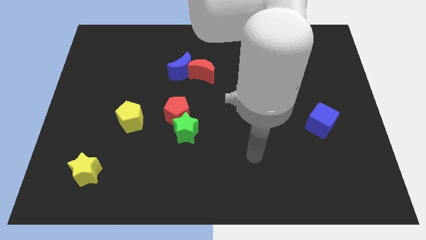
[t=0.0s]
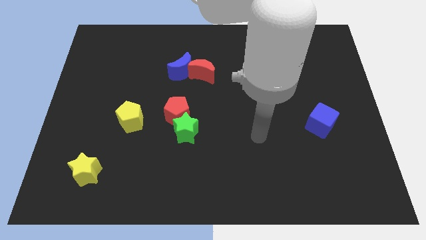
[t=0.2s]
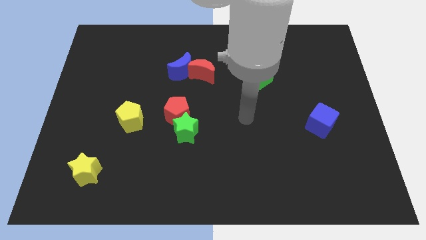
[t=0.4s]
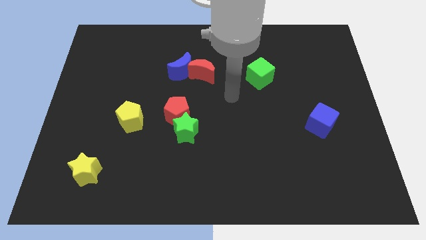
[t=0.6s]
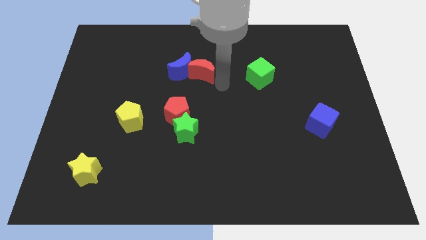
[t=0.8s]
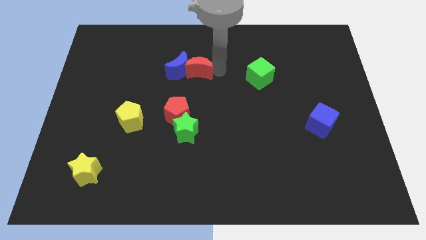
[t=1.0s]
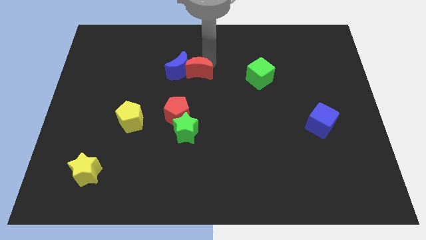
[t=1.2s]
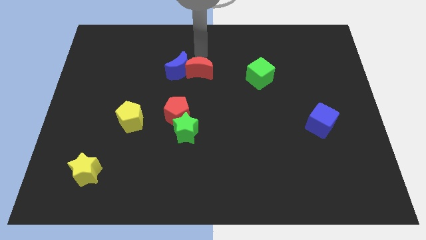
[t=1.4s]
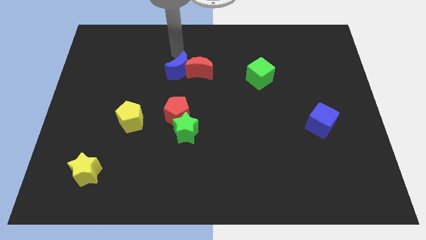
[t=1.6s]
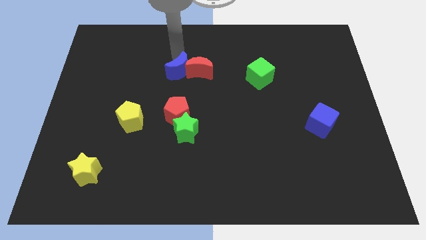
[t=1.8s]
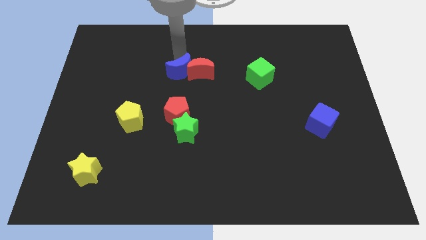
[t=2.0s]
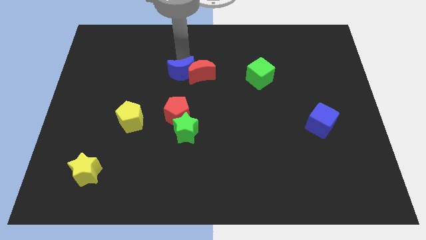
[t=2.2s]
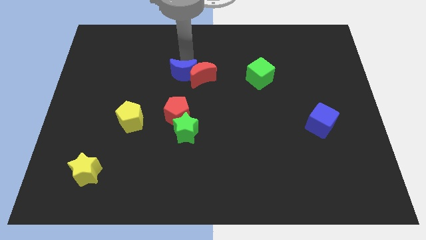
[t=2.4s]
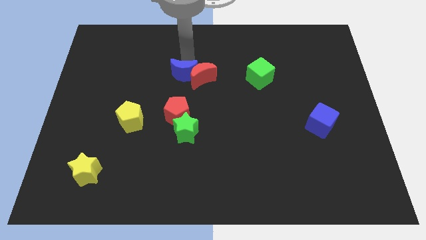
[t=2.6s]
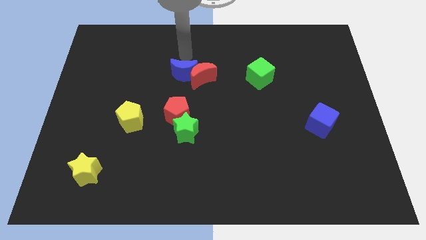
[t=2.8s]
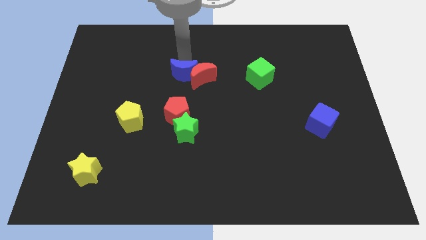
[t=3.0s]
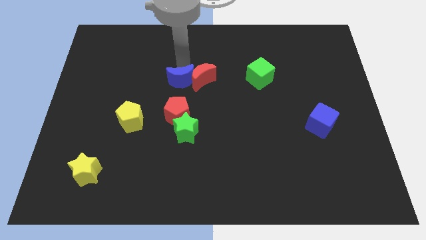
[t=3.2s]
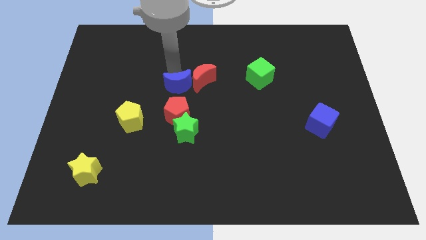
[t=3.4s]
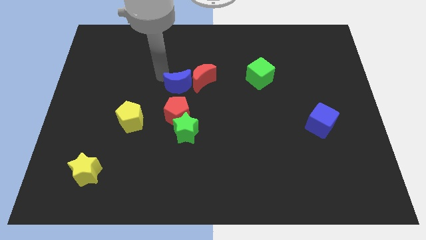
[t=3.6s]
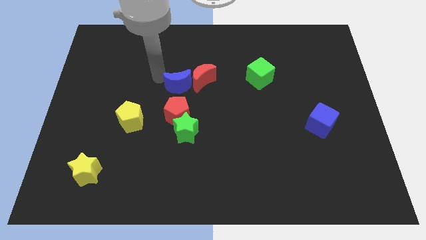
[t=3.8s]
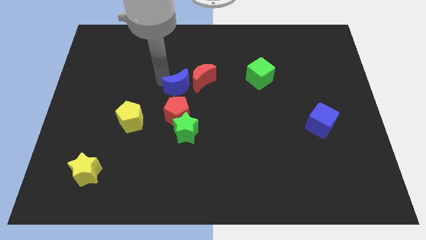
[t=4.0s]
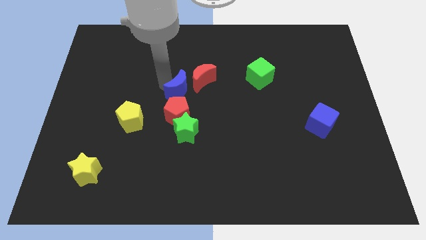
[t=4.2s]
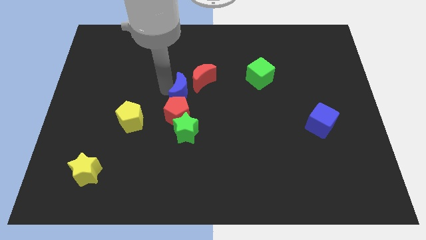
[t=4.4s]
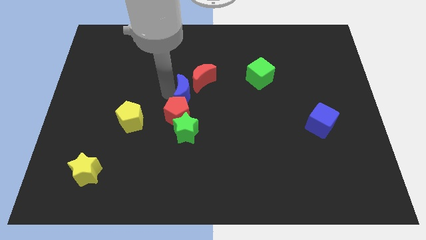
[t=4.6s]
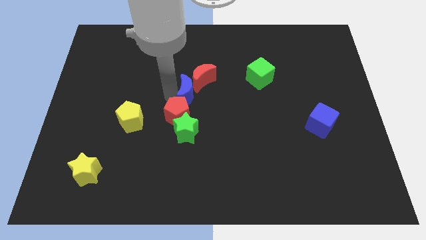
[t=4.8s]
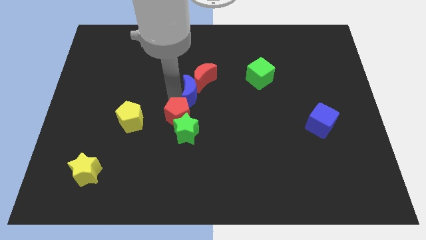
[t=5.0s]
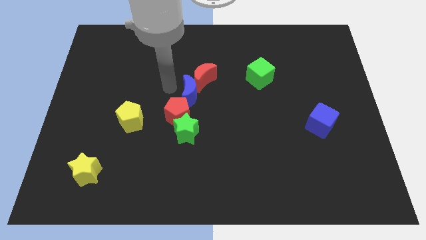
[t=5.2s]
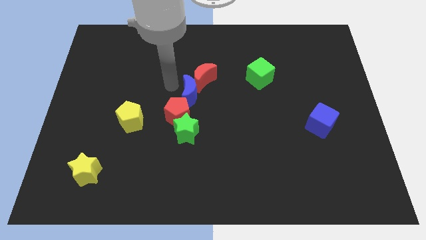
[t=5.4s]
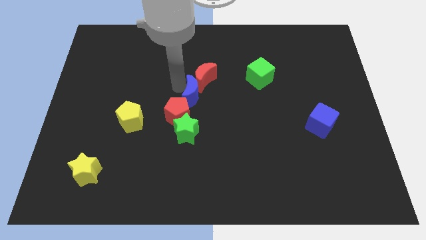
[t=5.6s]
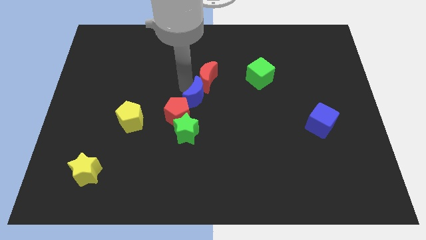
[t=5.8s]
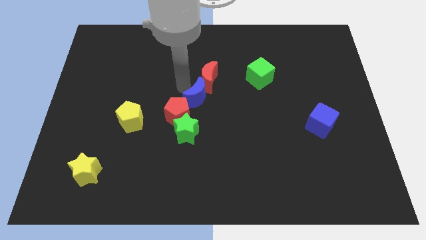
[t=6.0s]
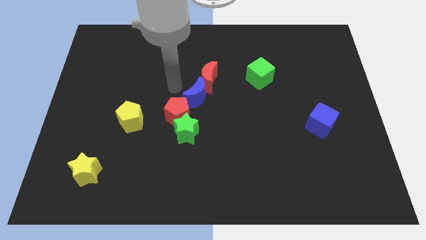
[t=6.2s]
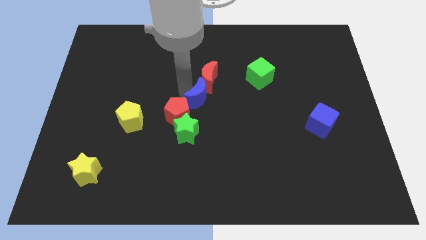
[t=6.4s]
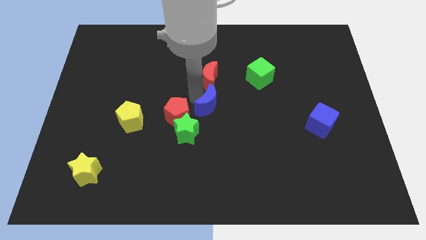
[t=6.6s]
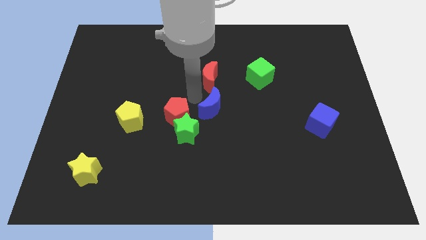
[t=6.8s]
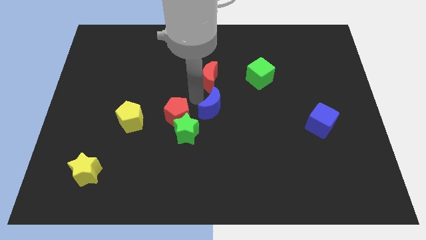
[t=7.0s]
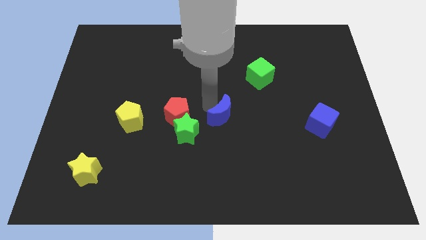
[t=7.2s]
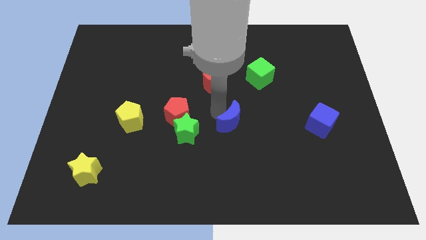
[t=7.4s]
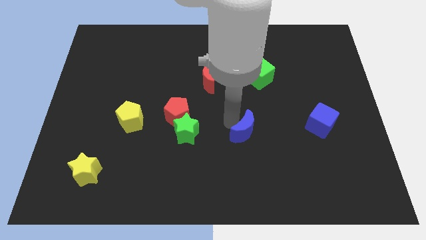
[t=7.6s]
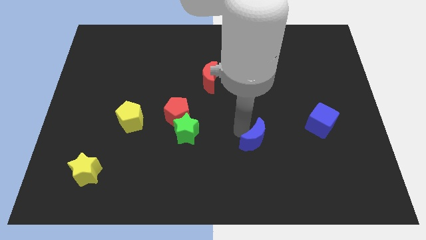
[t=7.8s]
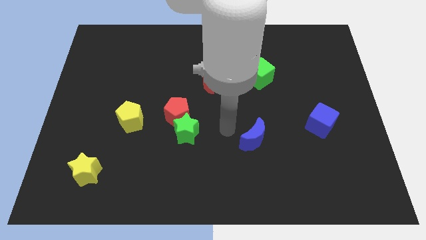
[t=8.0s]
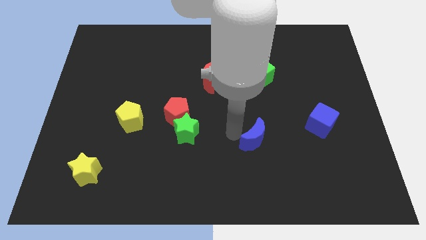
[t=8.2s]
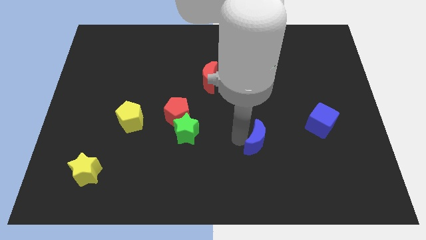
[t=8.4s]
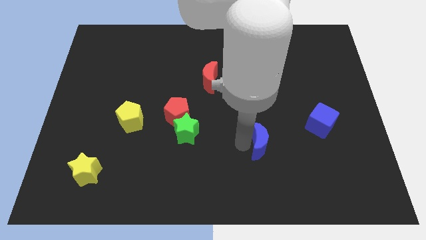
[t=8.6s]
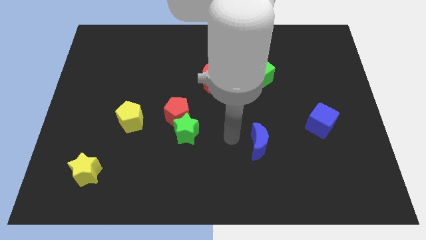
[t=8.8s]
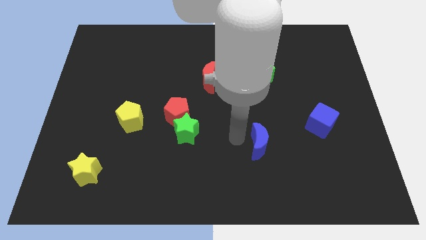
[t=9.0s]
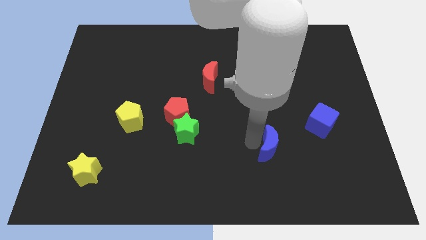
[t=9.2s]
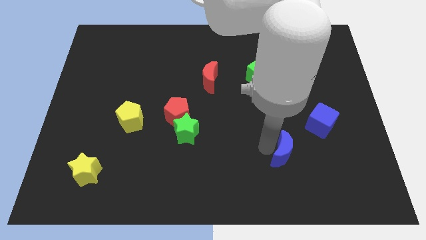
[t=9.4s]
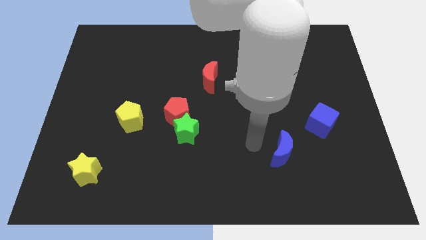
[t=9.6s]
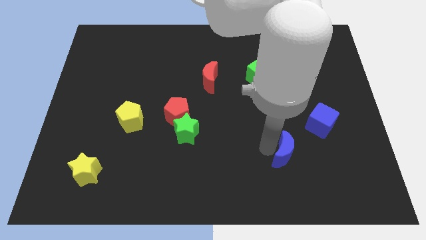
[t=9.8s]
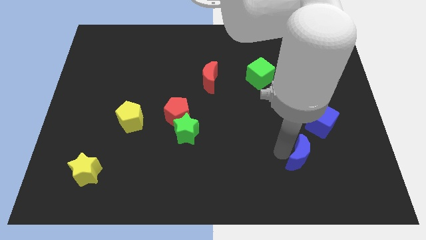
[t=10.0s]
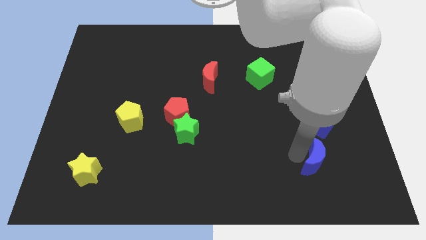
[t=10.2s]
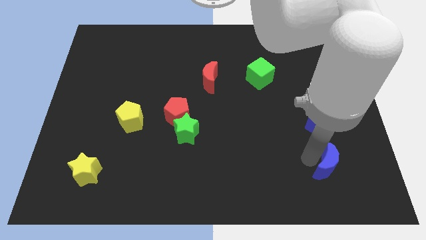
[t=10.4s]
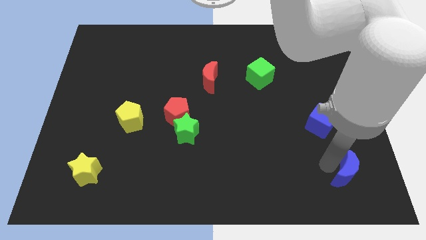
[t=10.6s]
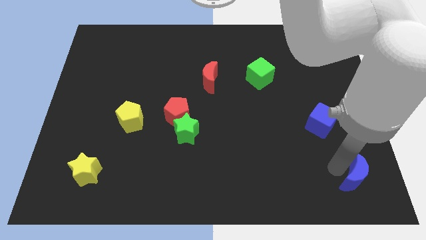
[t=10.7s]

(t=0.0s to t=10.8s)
push the blue moon to the lower right corner

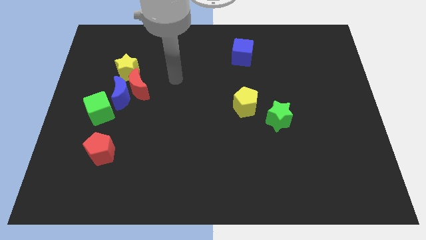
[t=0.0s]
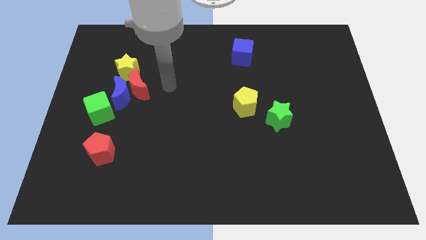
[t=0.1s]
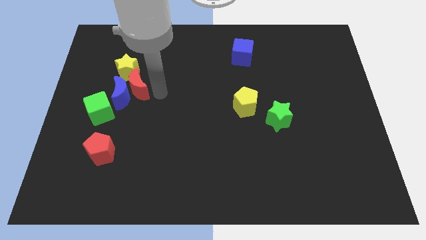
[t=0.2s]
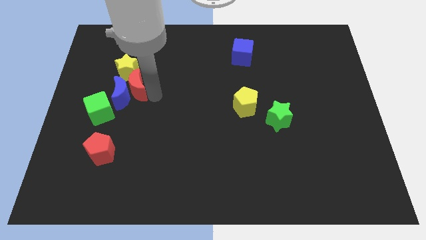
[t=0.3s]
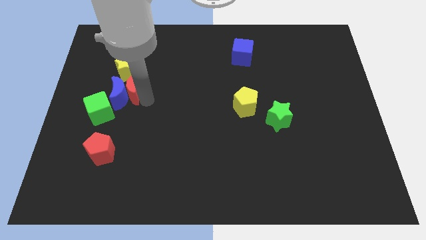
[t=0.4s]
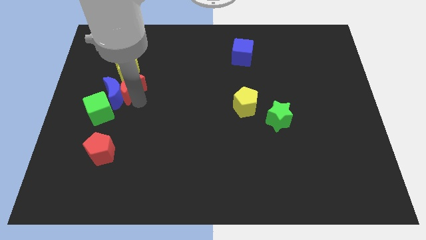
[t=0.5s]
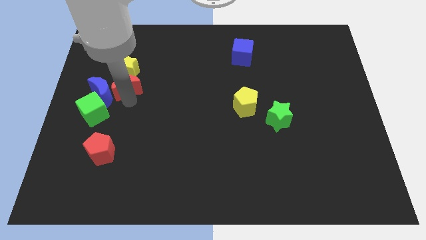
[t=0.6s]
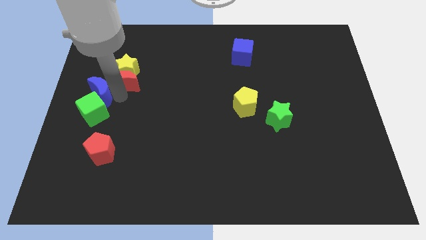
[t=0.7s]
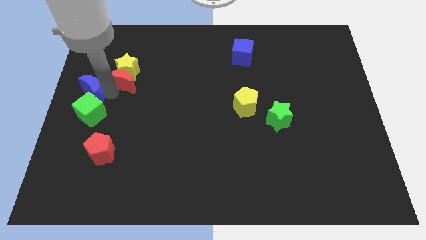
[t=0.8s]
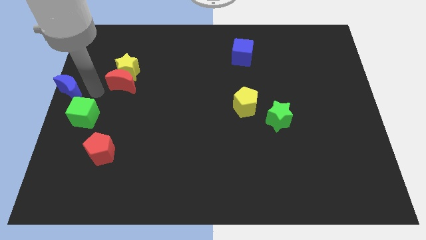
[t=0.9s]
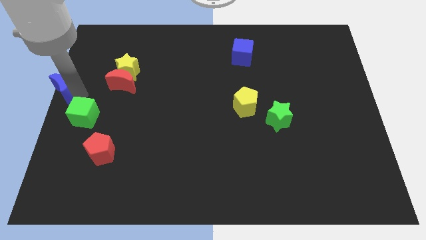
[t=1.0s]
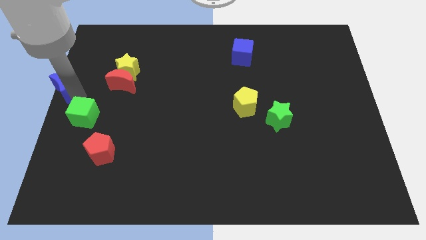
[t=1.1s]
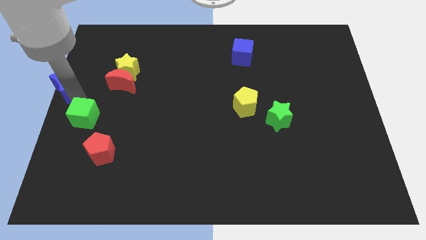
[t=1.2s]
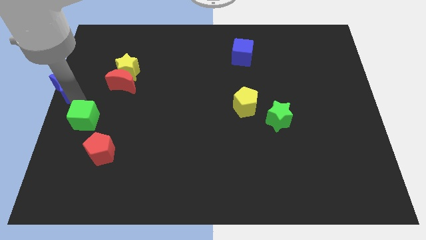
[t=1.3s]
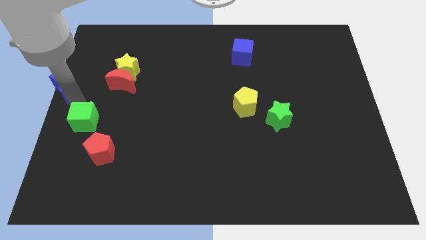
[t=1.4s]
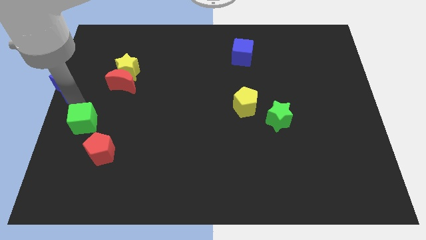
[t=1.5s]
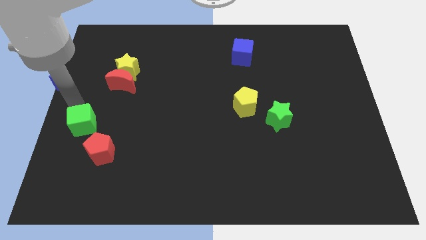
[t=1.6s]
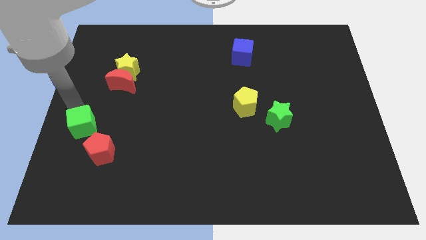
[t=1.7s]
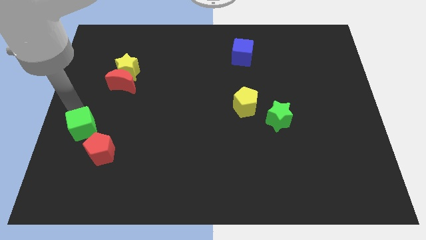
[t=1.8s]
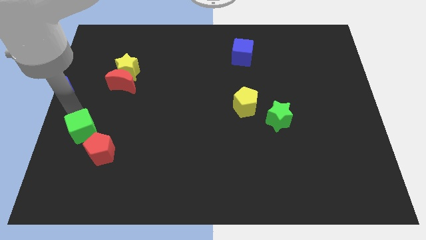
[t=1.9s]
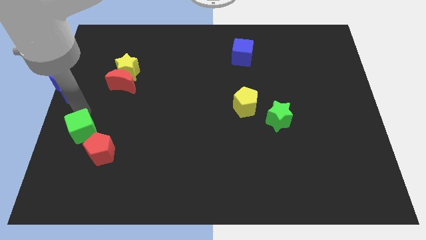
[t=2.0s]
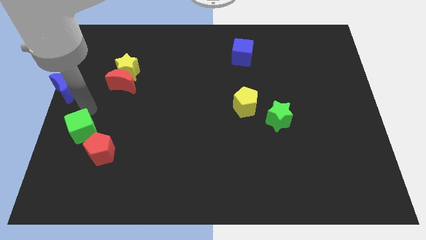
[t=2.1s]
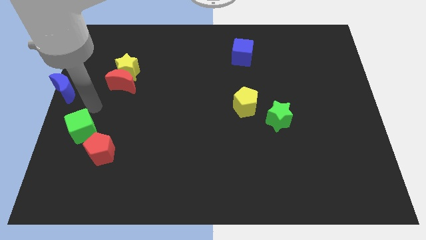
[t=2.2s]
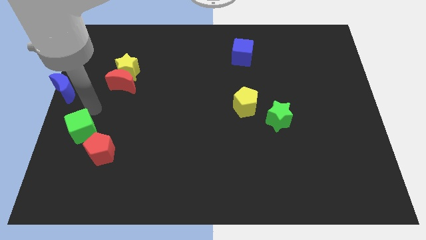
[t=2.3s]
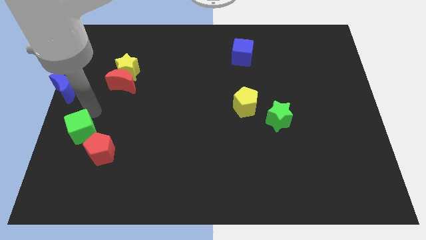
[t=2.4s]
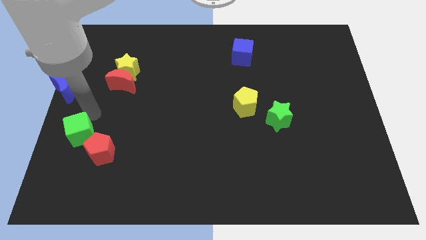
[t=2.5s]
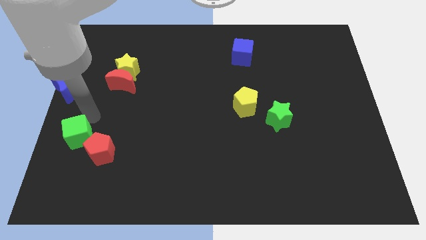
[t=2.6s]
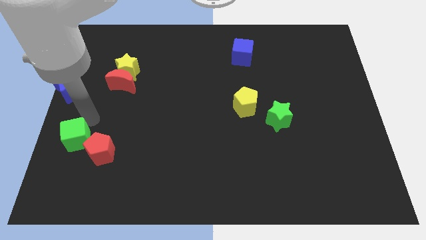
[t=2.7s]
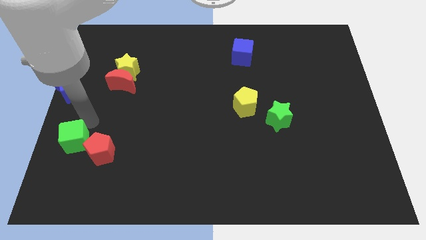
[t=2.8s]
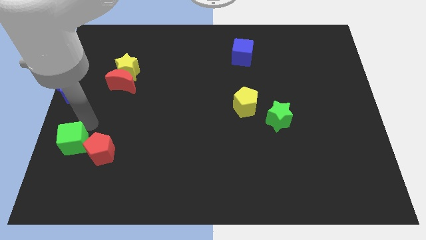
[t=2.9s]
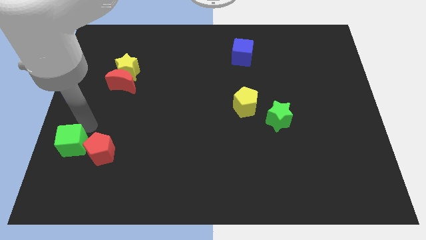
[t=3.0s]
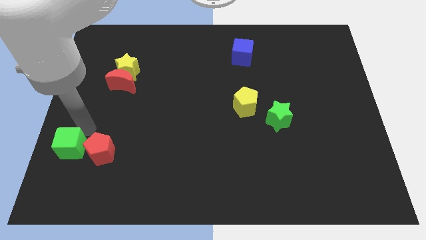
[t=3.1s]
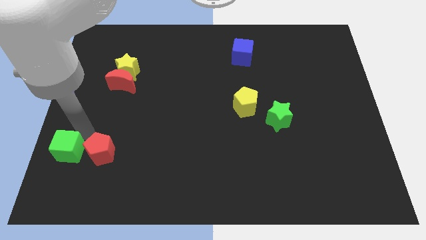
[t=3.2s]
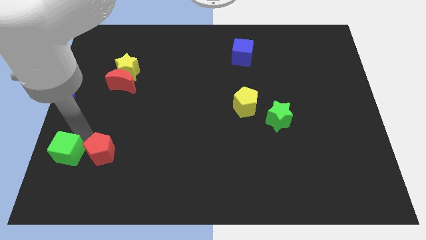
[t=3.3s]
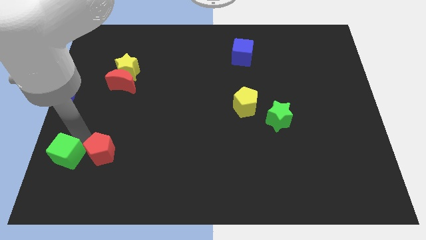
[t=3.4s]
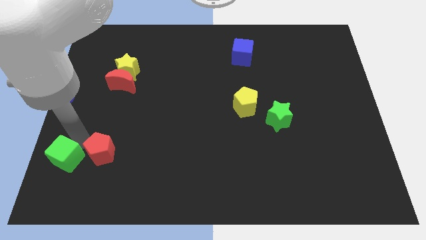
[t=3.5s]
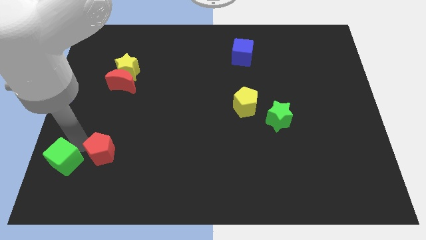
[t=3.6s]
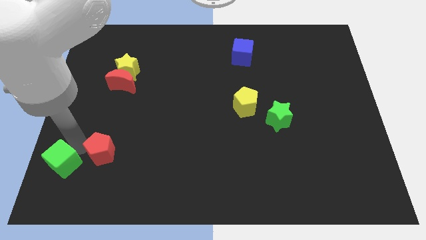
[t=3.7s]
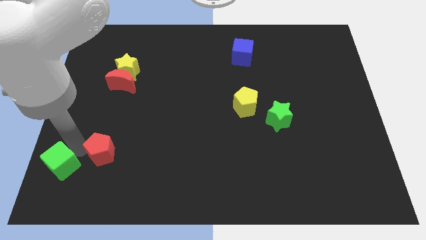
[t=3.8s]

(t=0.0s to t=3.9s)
move the green cube to the bottom left
